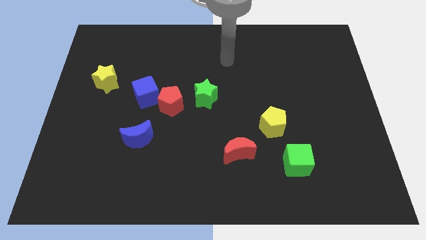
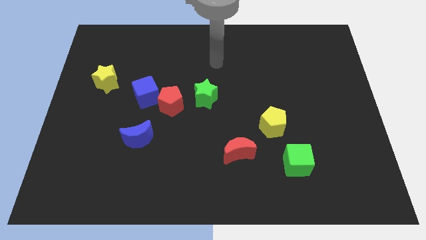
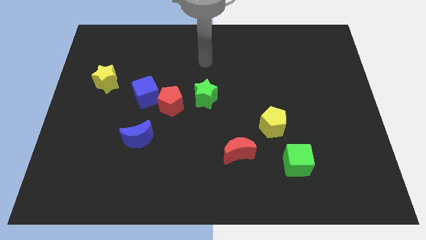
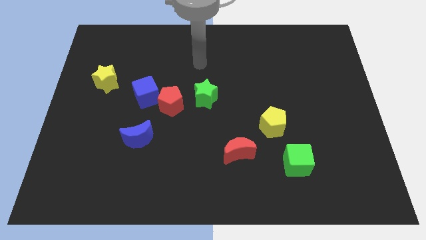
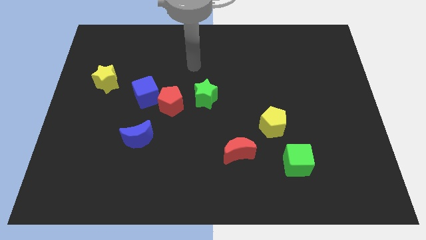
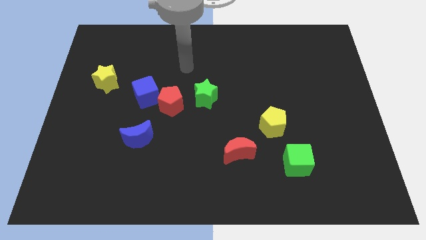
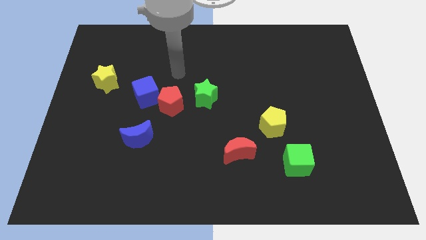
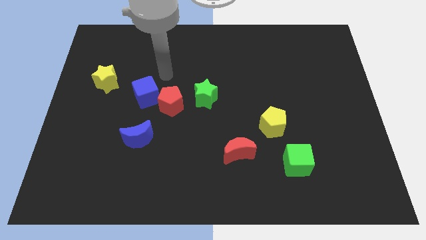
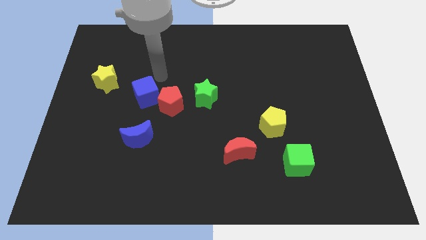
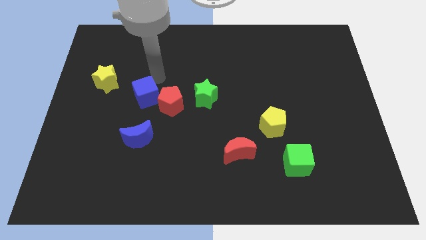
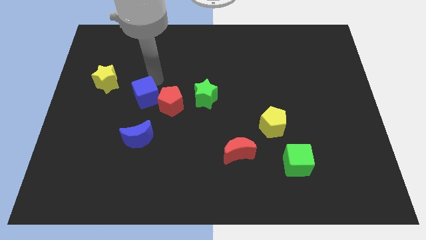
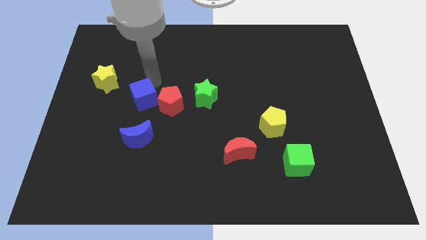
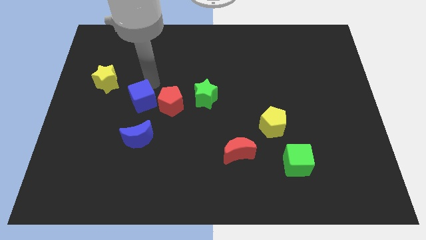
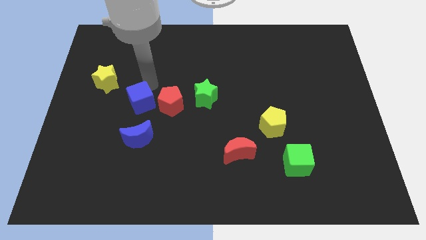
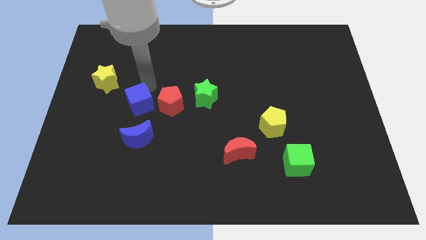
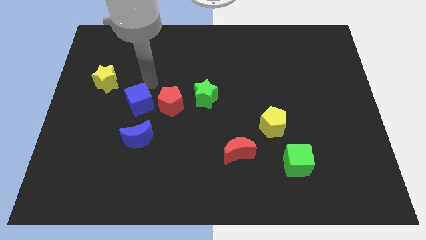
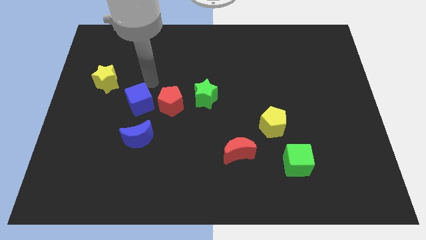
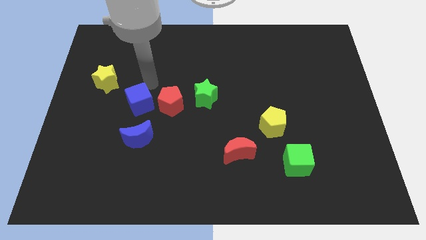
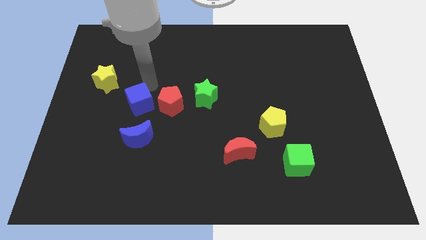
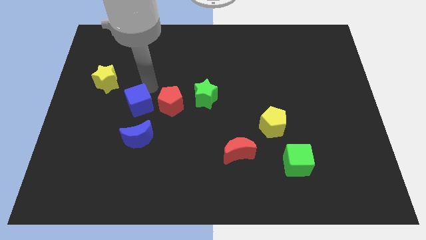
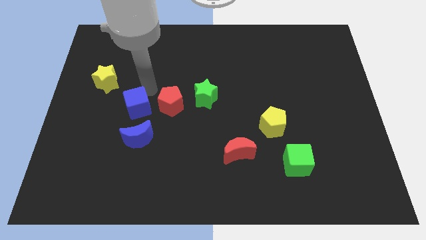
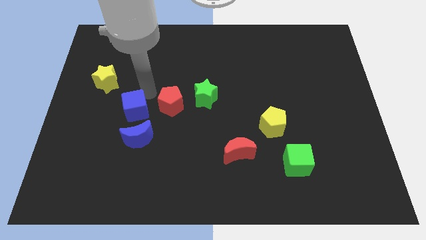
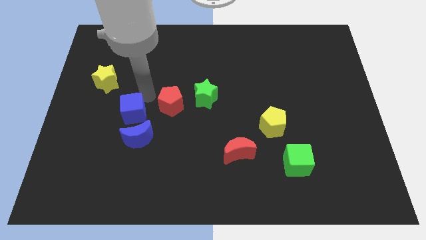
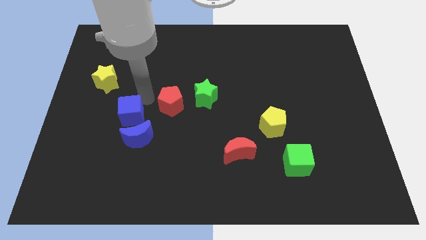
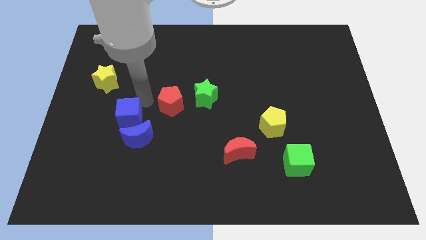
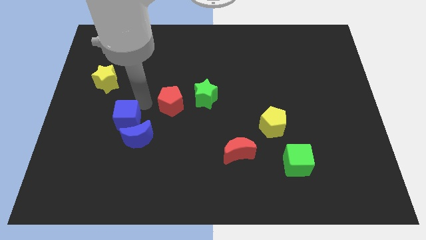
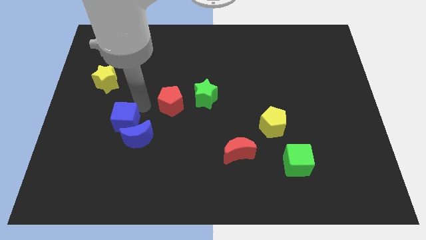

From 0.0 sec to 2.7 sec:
slightly move the blue cube down

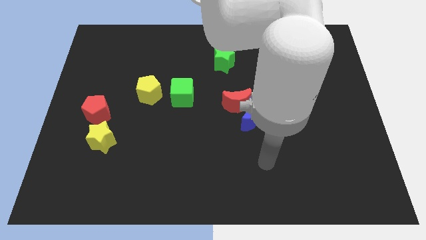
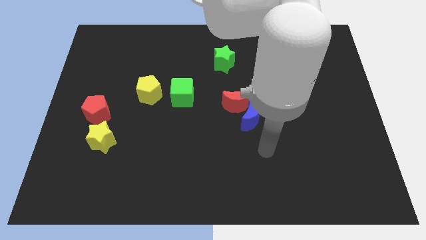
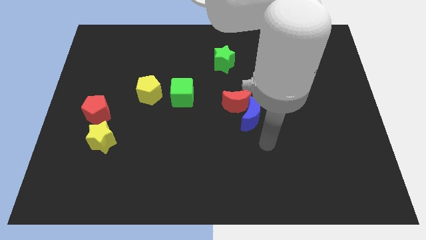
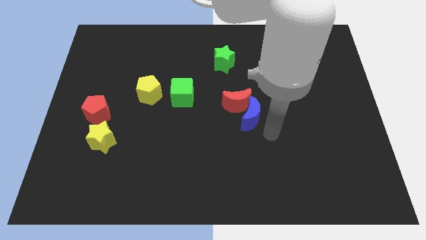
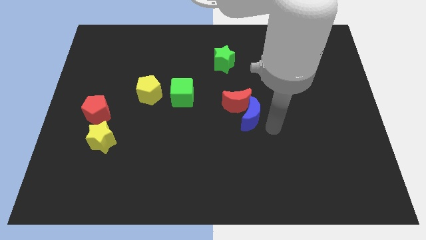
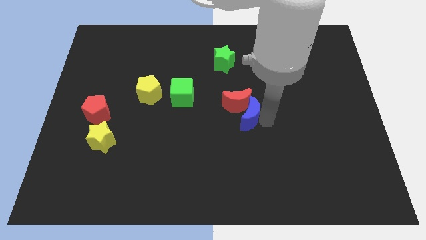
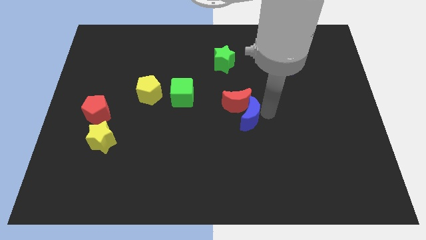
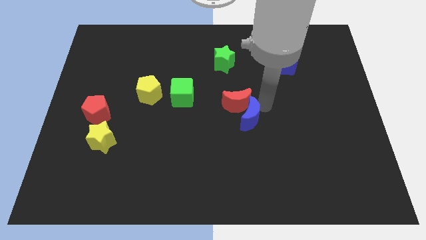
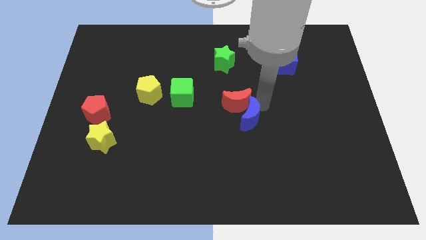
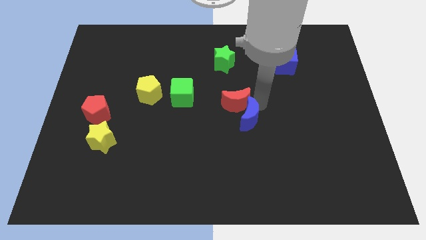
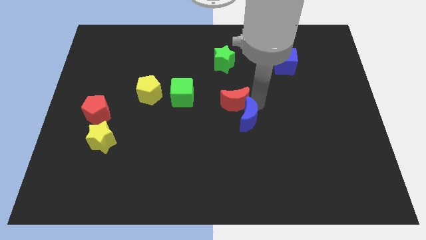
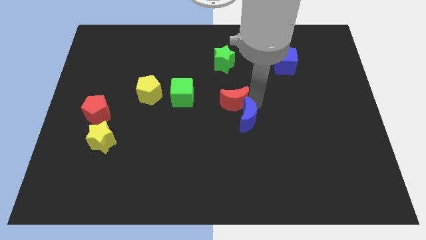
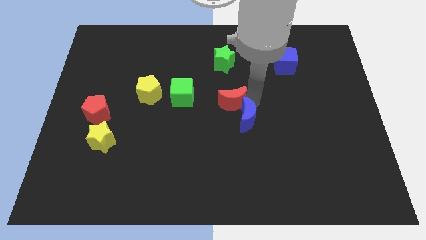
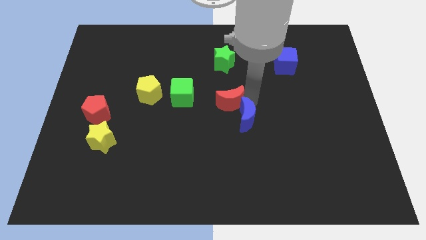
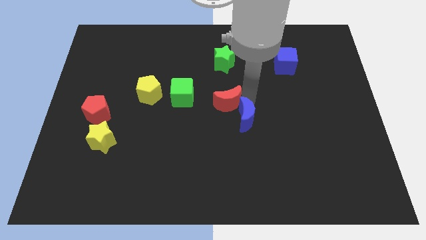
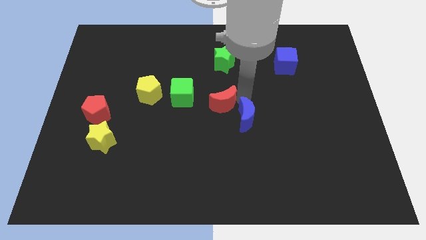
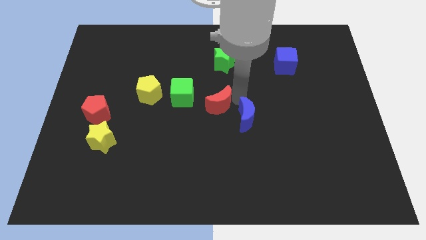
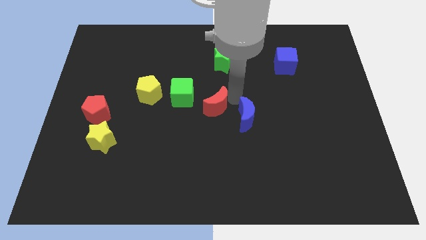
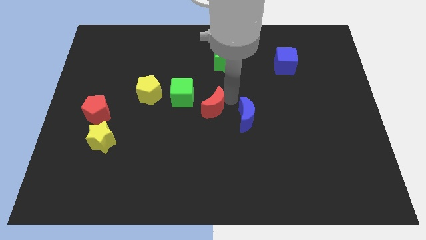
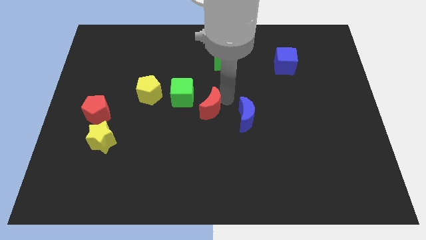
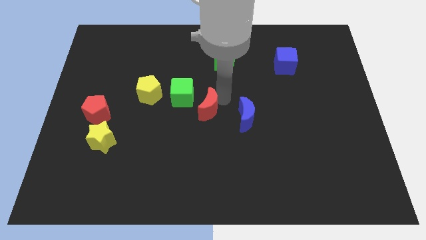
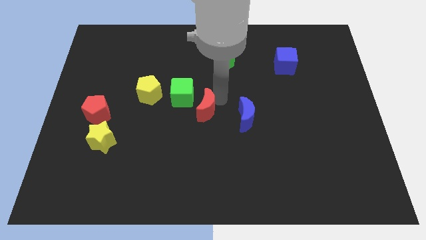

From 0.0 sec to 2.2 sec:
slide the red moon a little bit to the left

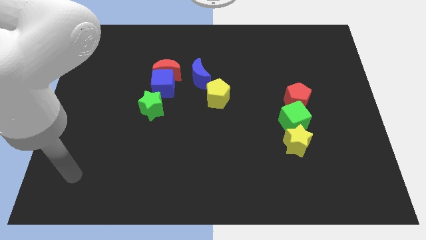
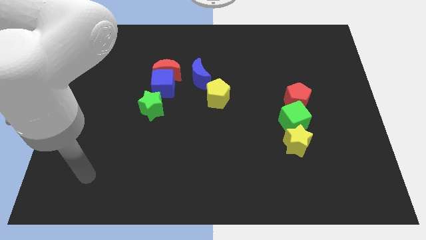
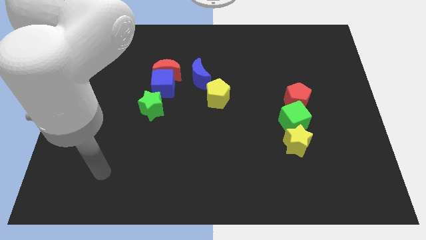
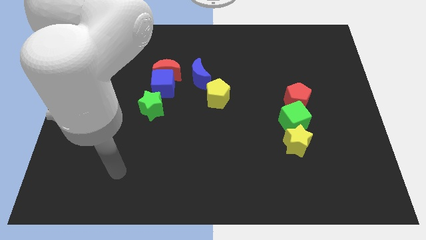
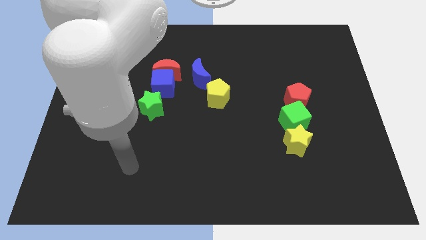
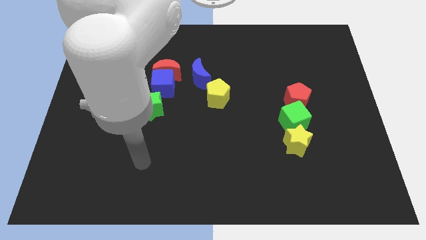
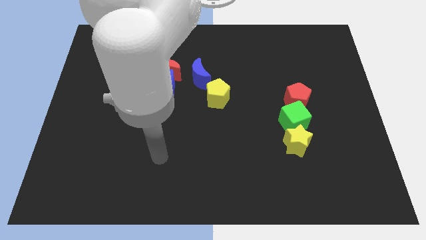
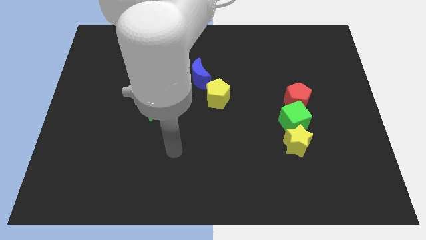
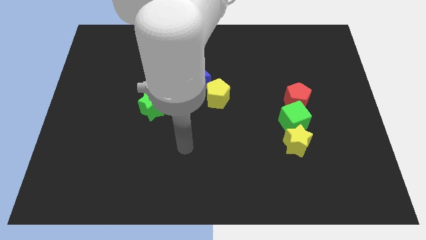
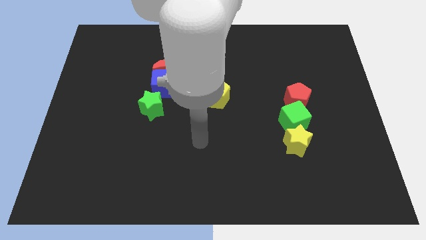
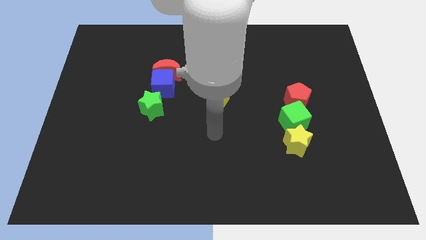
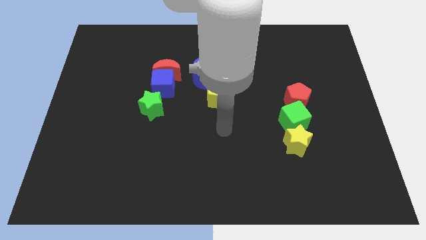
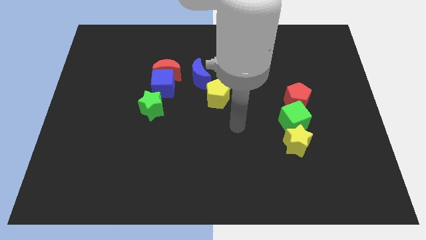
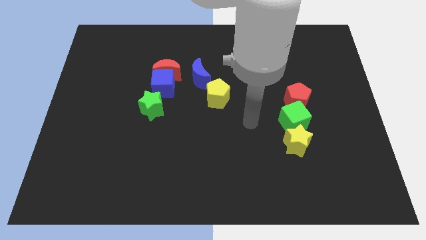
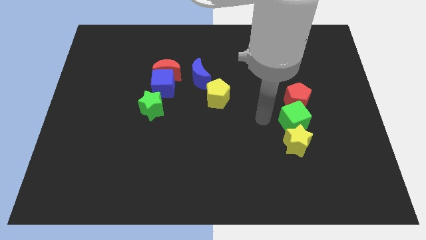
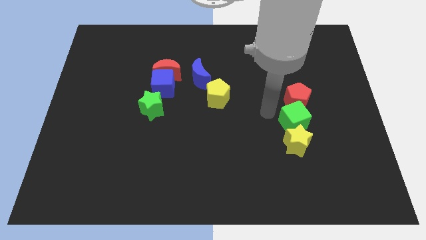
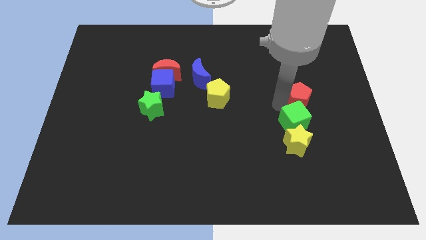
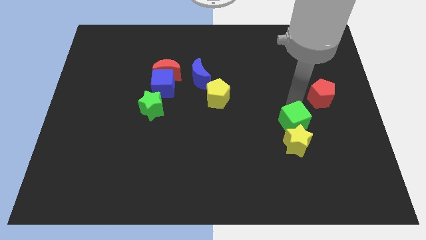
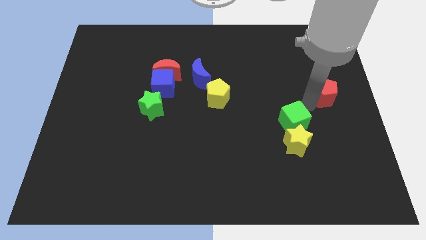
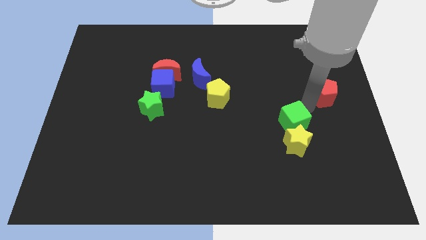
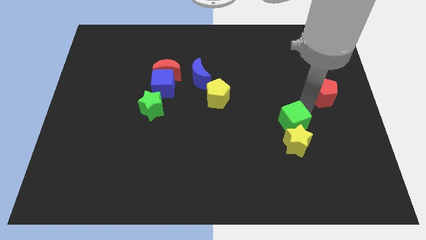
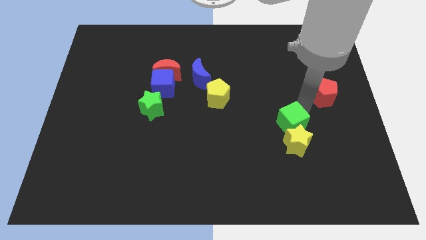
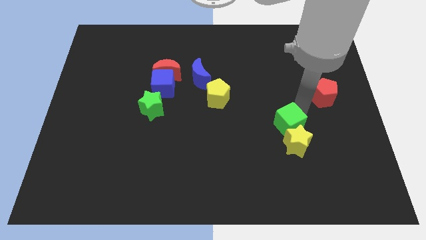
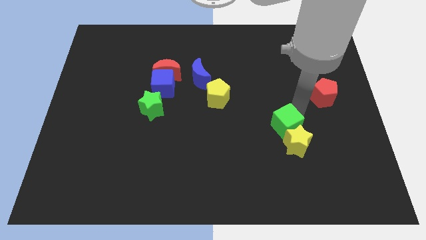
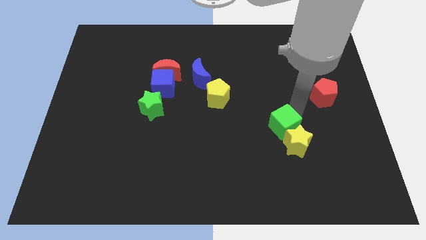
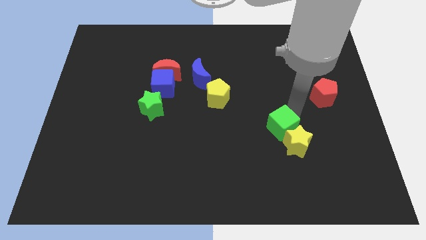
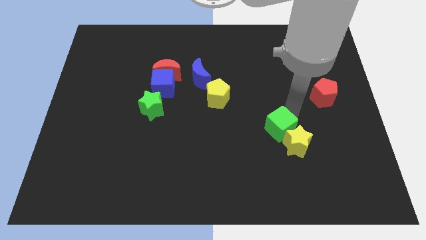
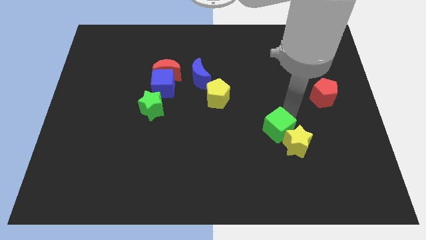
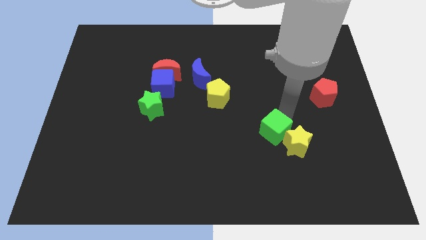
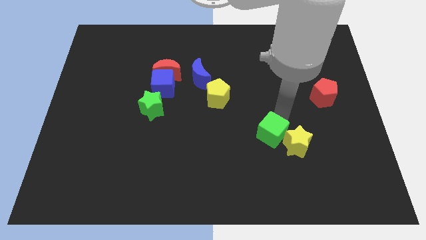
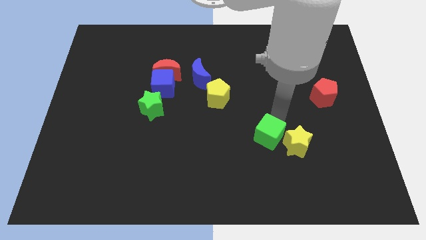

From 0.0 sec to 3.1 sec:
slide the green cube diagonally downwards and to the left slightly
